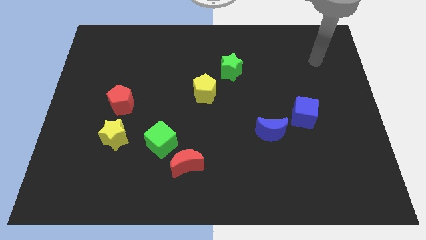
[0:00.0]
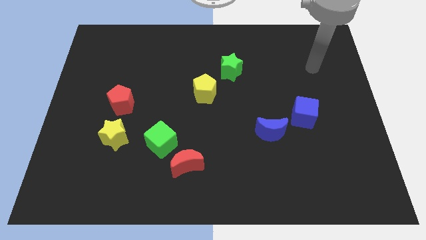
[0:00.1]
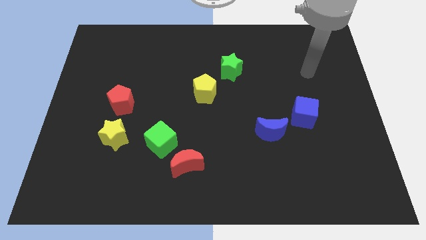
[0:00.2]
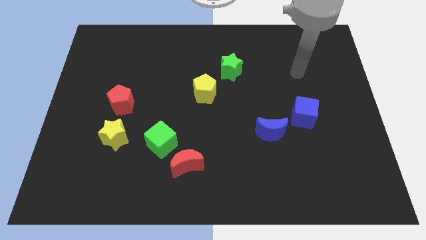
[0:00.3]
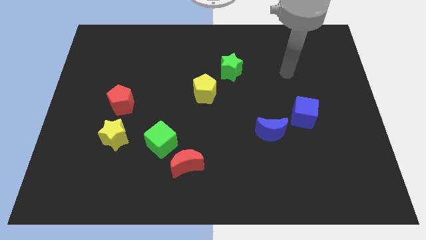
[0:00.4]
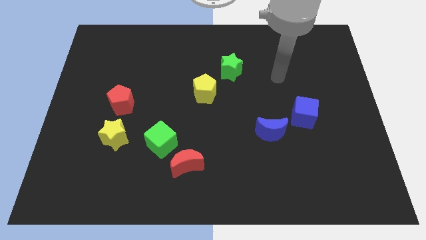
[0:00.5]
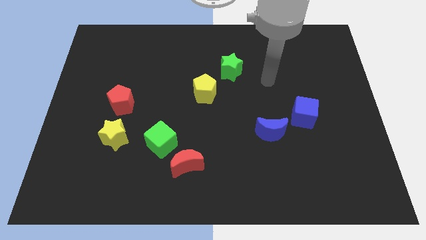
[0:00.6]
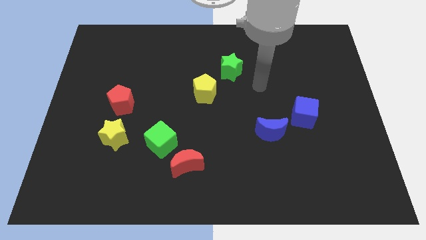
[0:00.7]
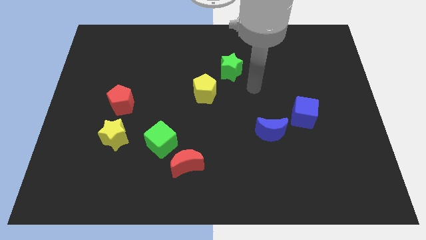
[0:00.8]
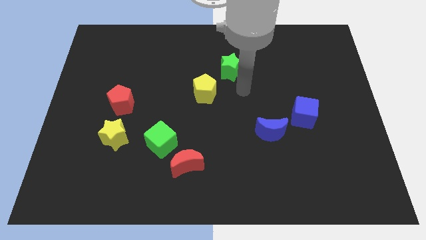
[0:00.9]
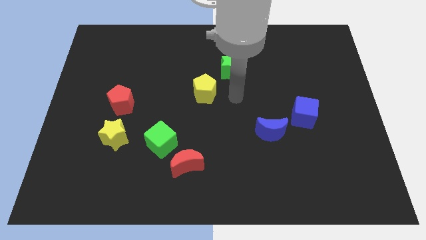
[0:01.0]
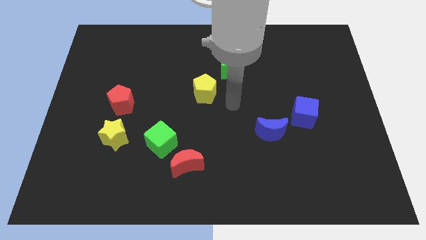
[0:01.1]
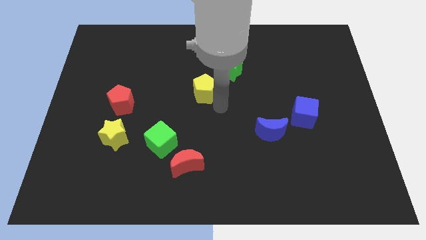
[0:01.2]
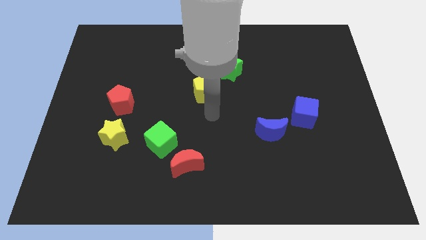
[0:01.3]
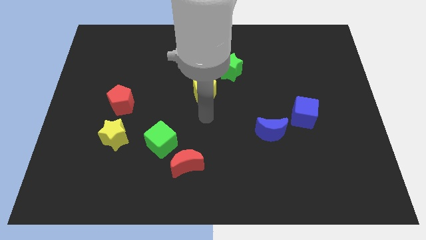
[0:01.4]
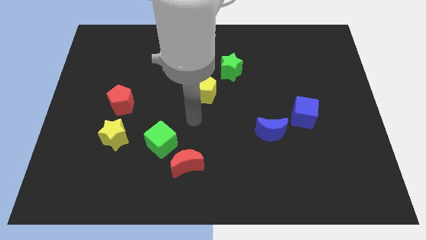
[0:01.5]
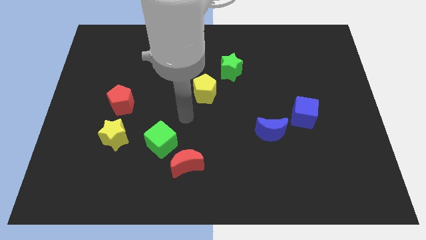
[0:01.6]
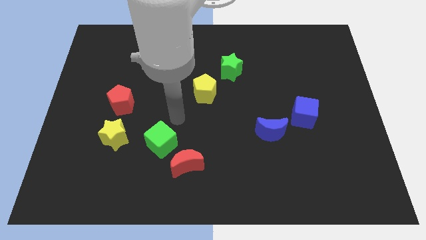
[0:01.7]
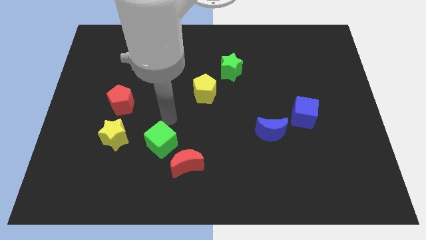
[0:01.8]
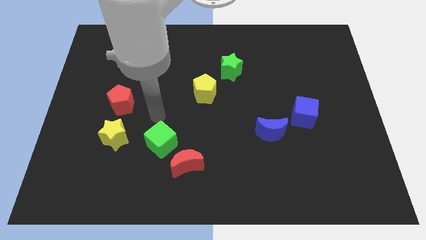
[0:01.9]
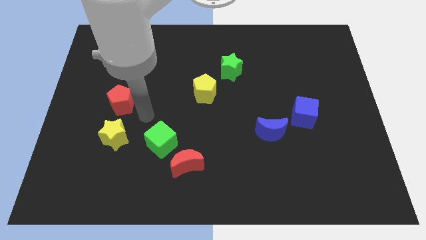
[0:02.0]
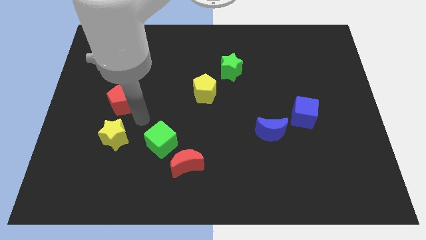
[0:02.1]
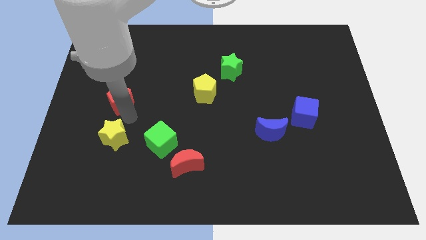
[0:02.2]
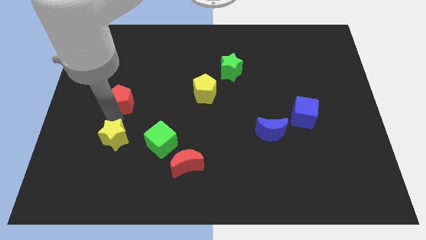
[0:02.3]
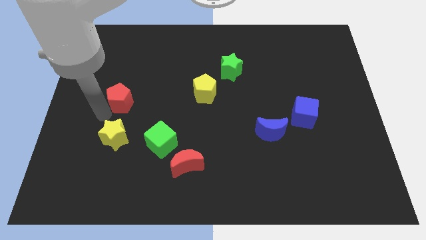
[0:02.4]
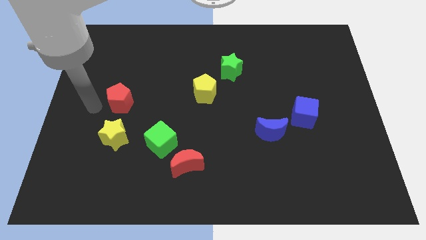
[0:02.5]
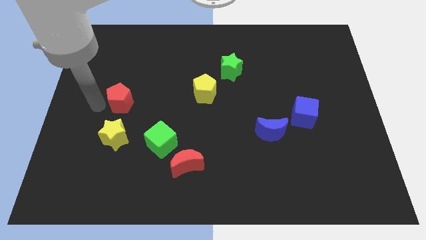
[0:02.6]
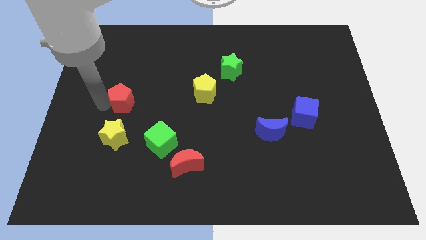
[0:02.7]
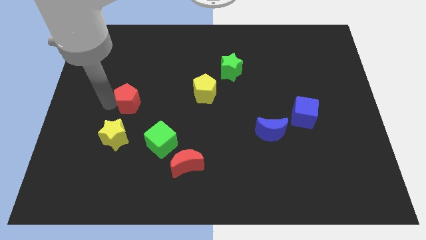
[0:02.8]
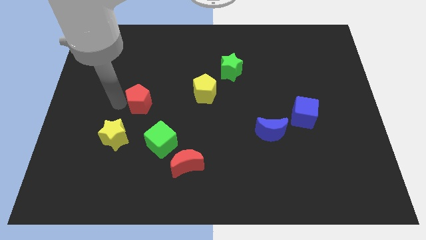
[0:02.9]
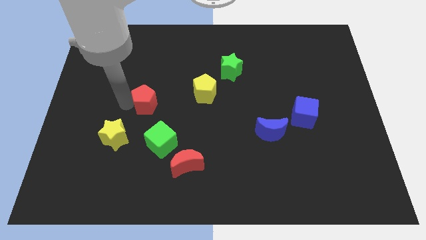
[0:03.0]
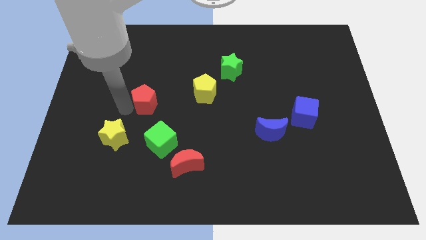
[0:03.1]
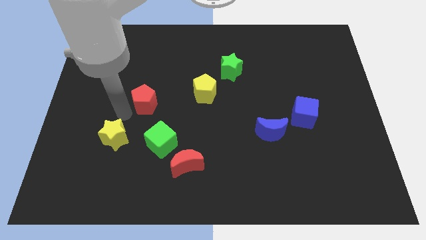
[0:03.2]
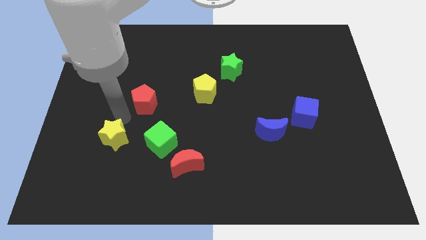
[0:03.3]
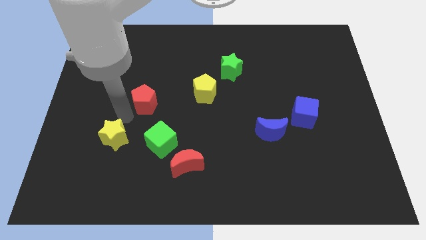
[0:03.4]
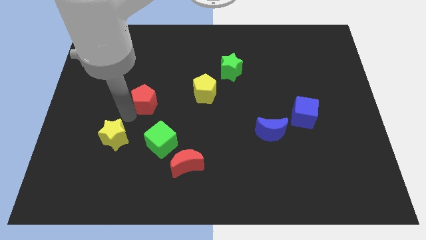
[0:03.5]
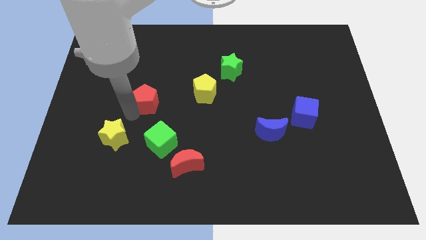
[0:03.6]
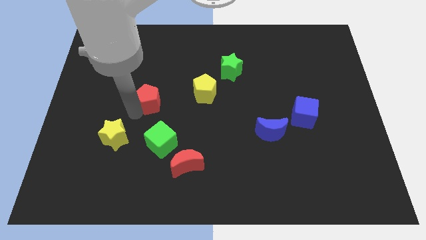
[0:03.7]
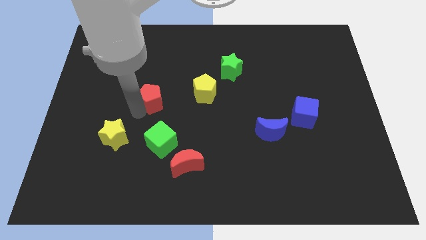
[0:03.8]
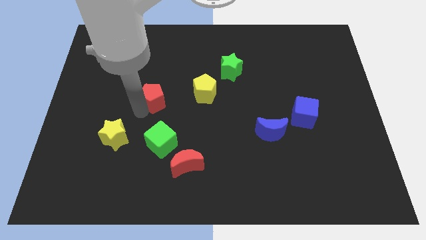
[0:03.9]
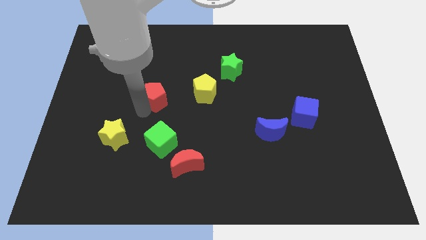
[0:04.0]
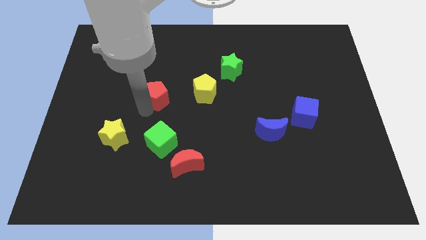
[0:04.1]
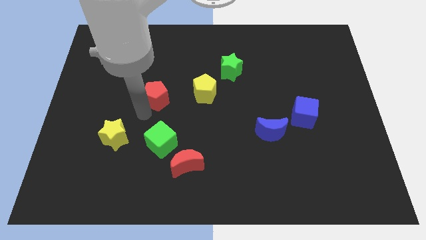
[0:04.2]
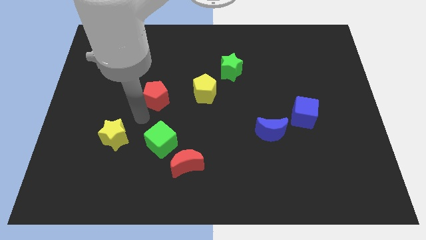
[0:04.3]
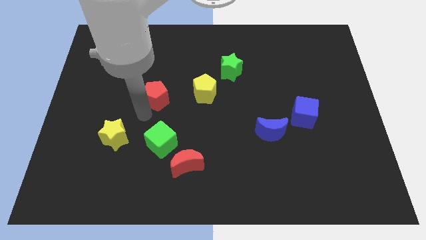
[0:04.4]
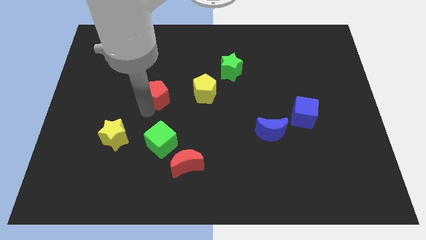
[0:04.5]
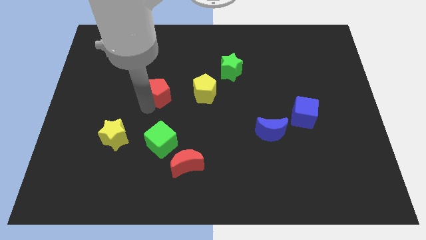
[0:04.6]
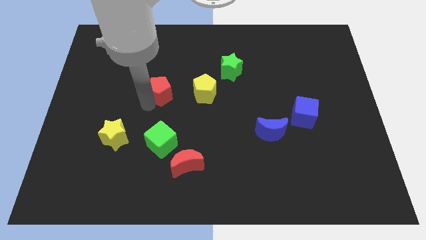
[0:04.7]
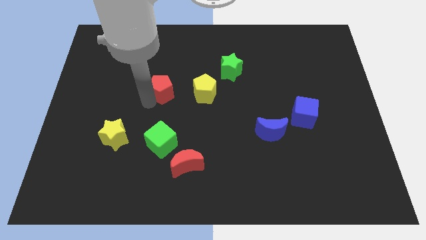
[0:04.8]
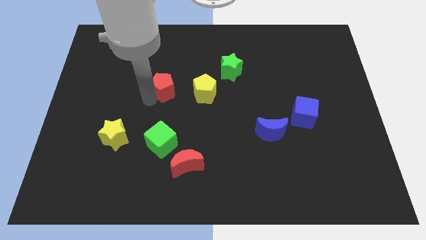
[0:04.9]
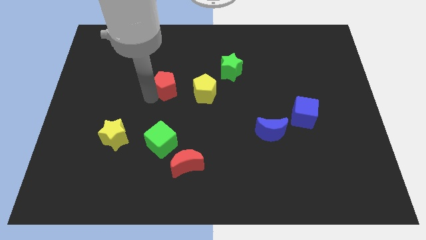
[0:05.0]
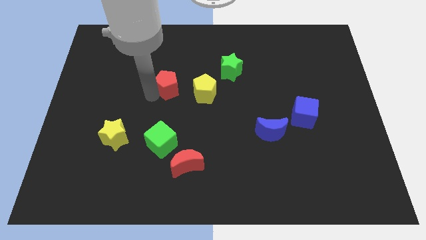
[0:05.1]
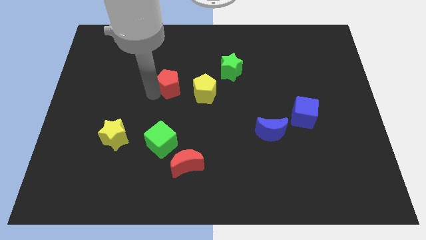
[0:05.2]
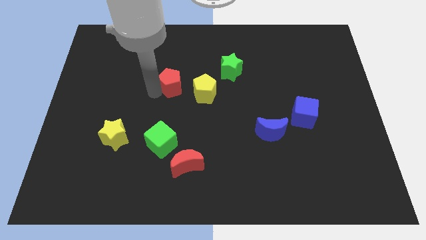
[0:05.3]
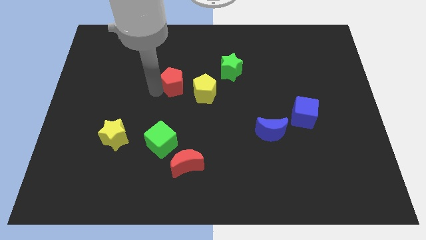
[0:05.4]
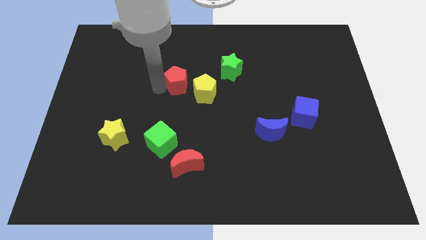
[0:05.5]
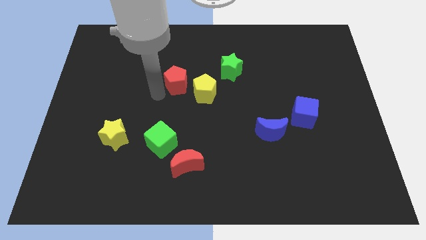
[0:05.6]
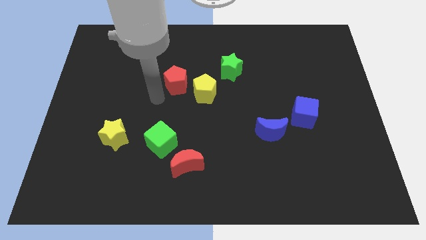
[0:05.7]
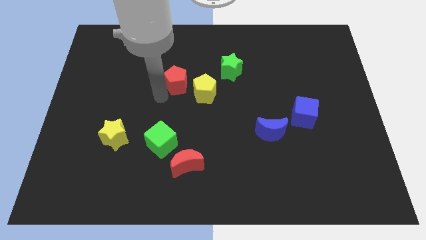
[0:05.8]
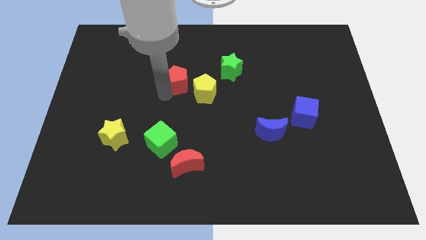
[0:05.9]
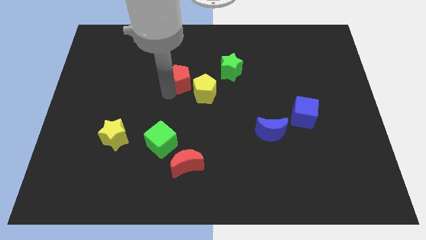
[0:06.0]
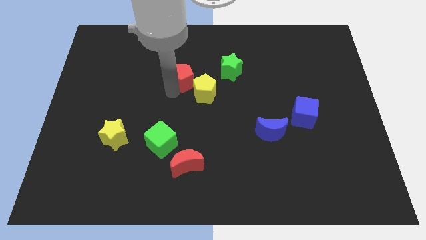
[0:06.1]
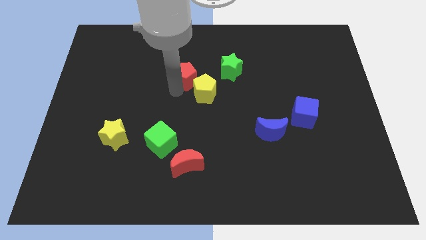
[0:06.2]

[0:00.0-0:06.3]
put the red pentagon to the top of the yellow pentagon
